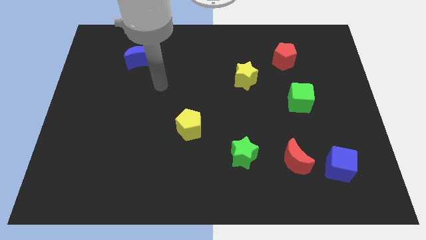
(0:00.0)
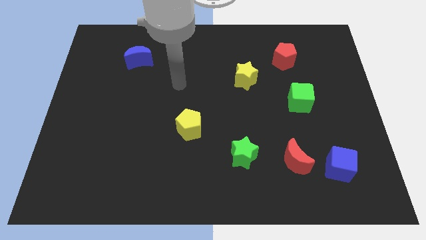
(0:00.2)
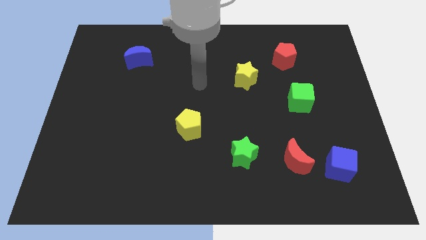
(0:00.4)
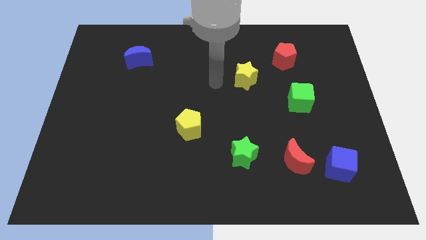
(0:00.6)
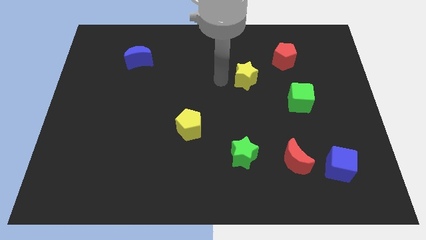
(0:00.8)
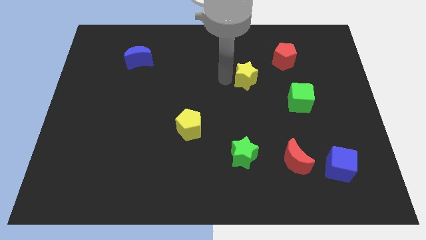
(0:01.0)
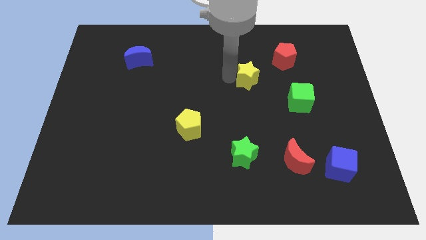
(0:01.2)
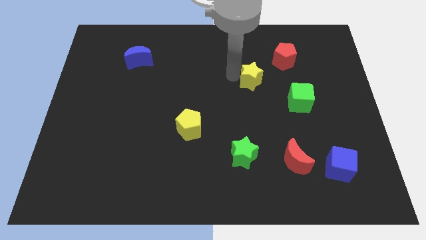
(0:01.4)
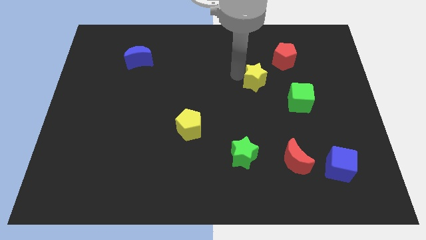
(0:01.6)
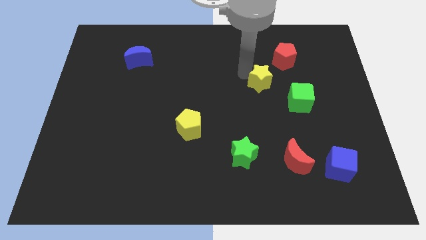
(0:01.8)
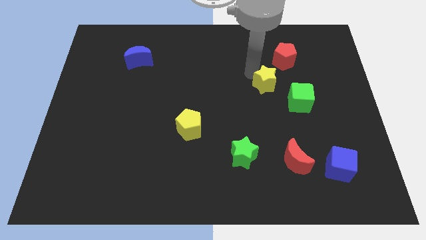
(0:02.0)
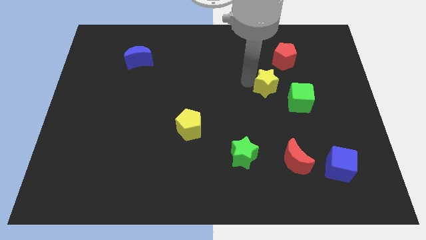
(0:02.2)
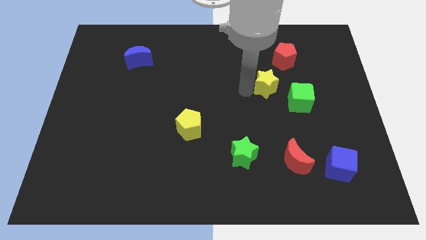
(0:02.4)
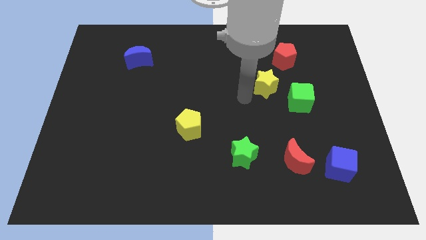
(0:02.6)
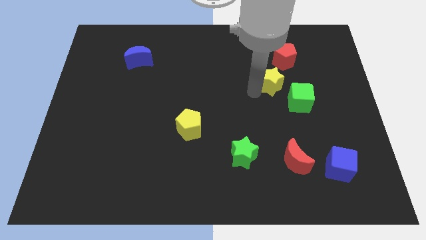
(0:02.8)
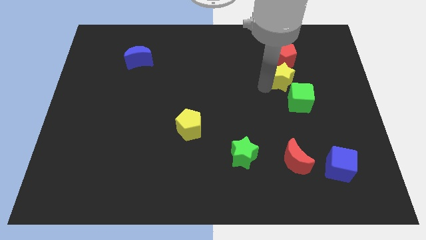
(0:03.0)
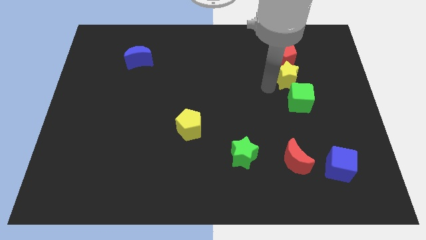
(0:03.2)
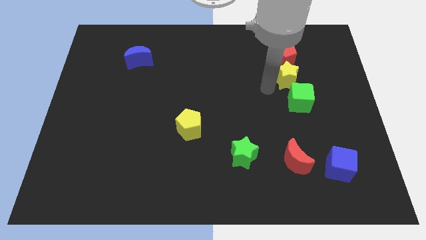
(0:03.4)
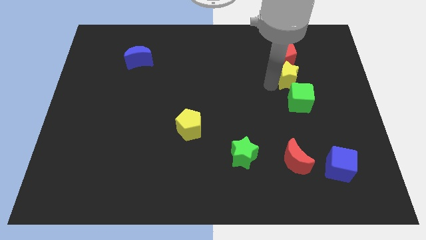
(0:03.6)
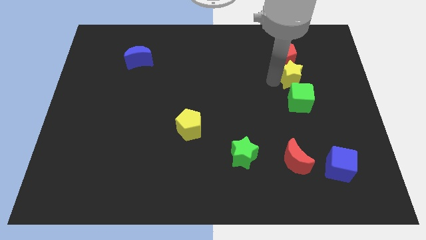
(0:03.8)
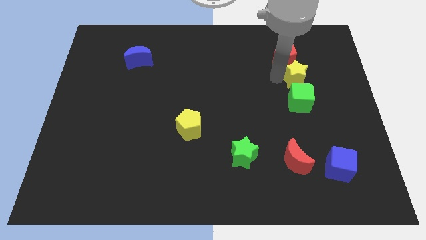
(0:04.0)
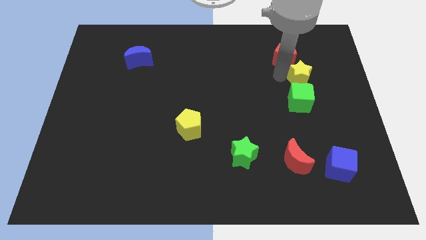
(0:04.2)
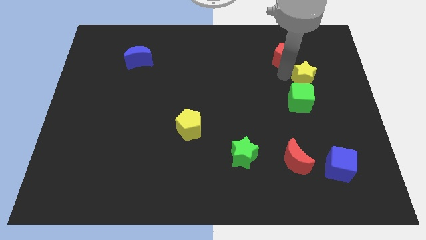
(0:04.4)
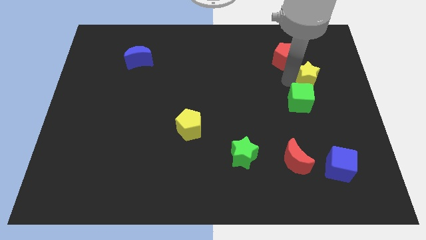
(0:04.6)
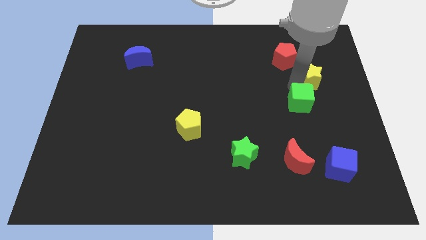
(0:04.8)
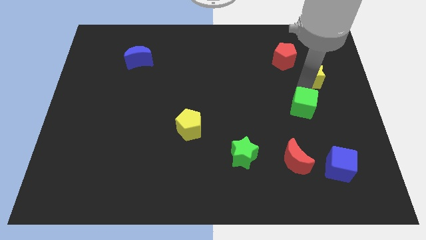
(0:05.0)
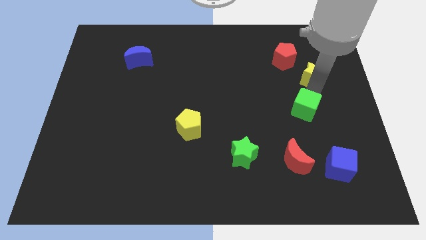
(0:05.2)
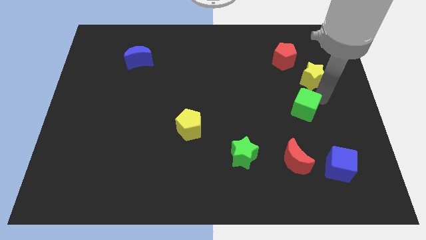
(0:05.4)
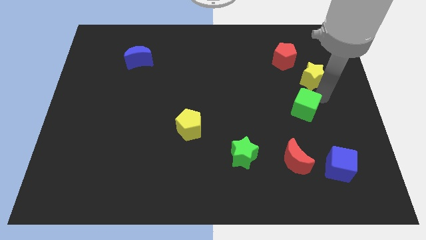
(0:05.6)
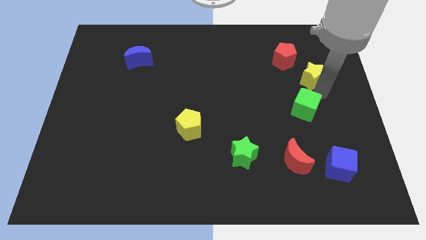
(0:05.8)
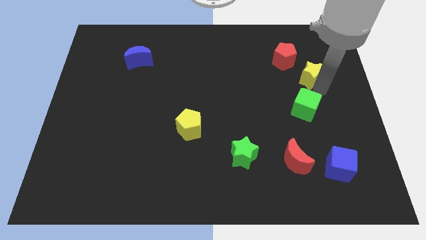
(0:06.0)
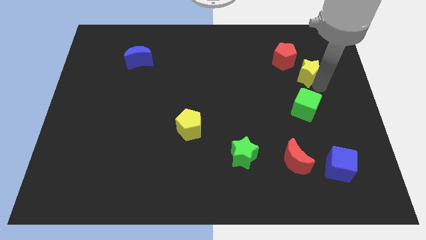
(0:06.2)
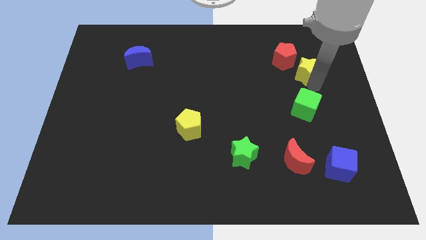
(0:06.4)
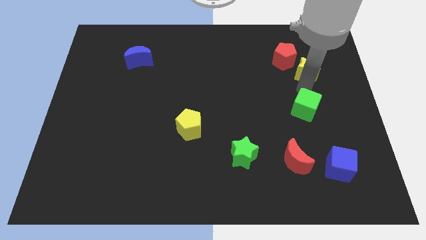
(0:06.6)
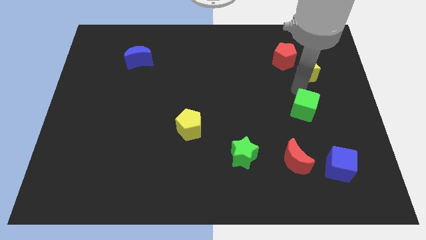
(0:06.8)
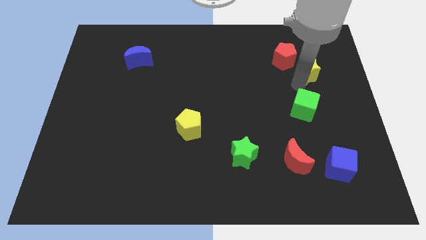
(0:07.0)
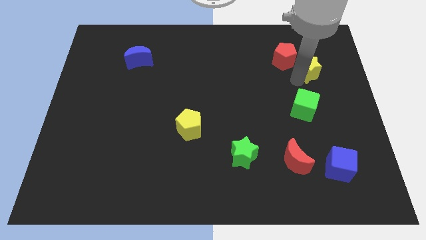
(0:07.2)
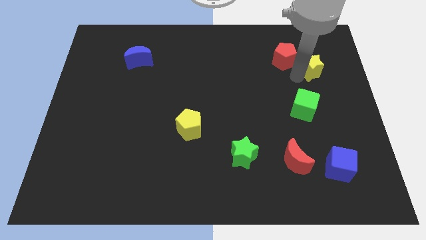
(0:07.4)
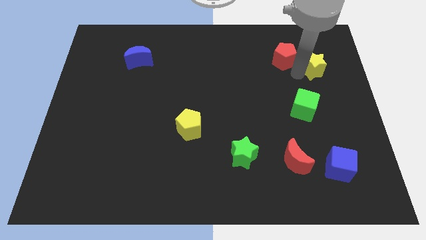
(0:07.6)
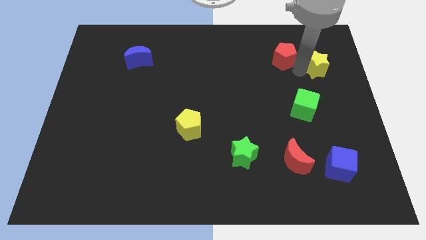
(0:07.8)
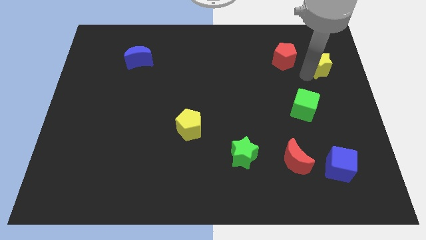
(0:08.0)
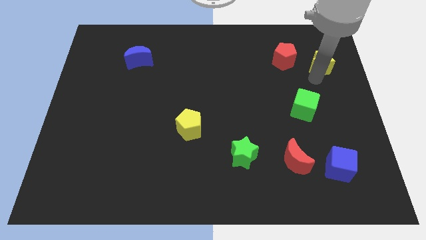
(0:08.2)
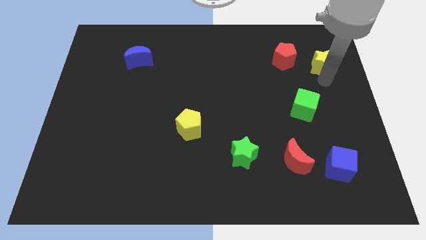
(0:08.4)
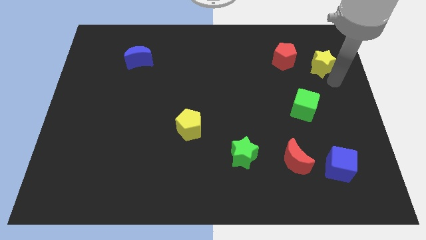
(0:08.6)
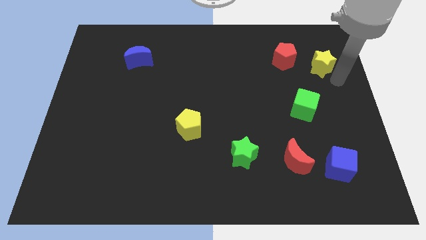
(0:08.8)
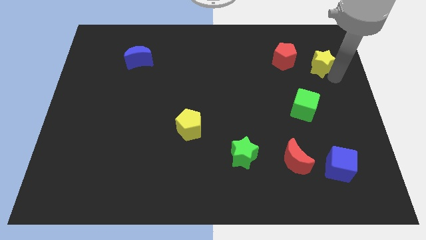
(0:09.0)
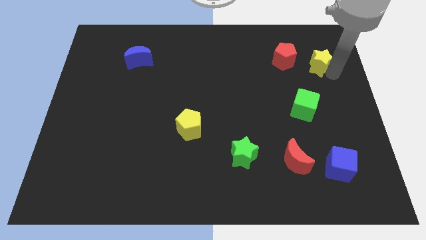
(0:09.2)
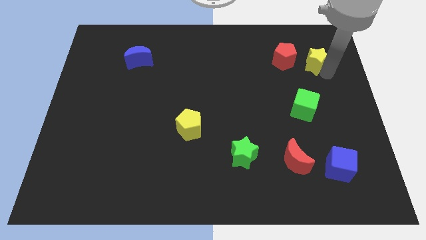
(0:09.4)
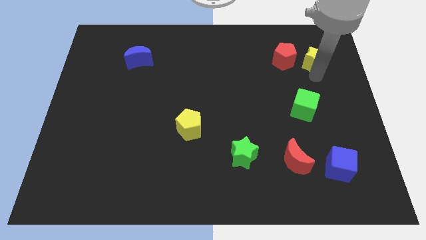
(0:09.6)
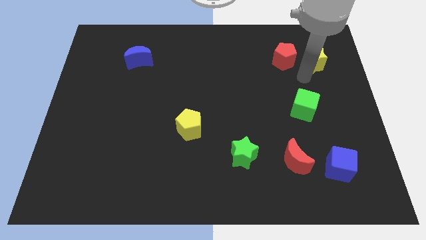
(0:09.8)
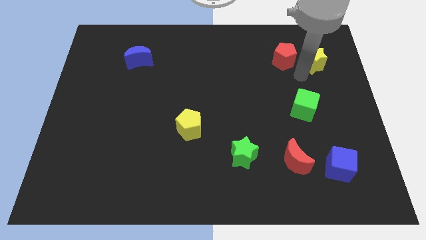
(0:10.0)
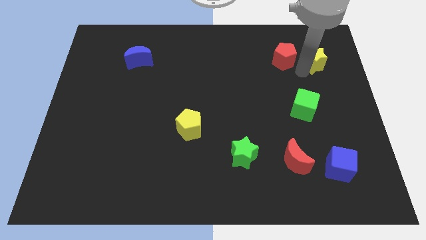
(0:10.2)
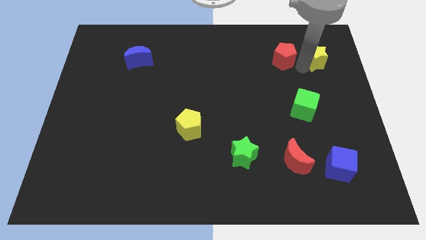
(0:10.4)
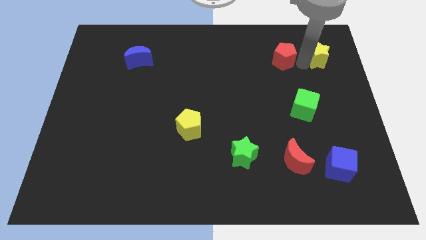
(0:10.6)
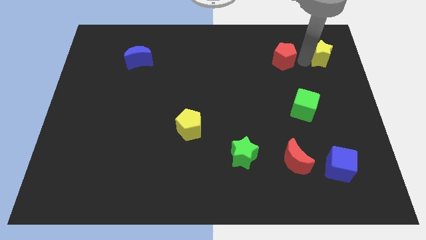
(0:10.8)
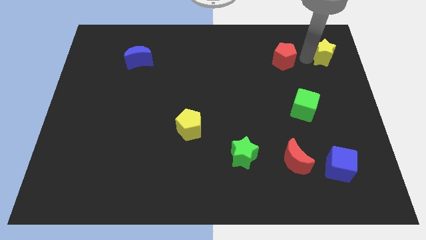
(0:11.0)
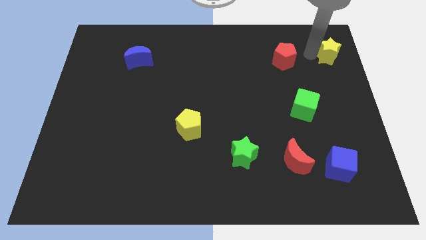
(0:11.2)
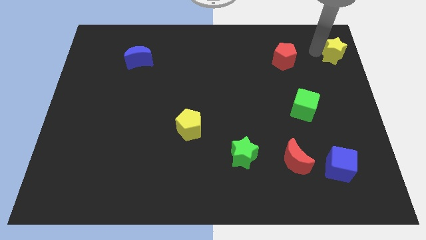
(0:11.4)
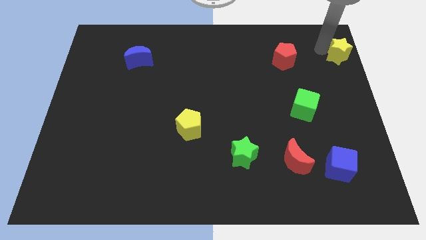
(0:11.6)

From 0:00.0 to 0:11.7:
move the yellow star to the top right of the board

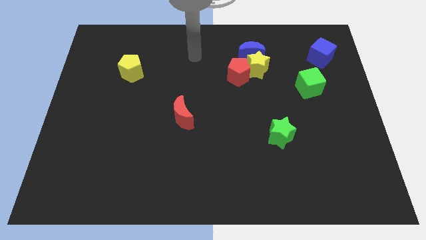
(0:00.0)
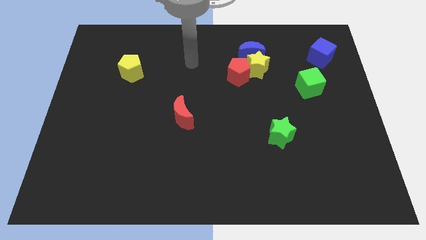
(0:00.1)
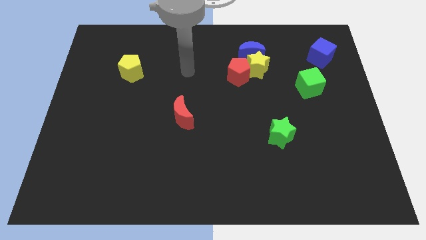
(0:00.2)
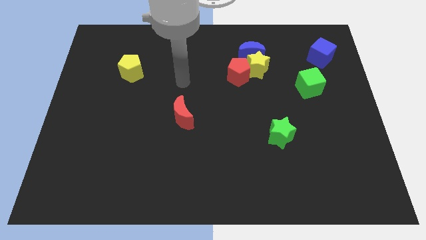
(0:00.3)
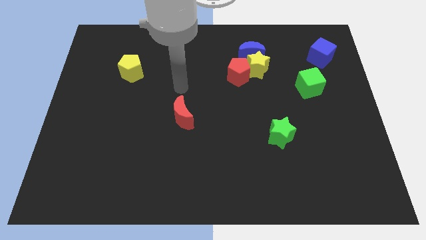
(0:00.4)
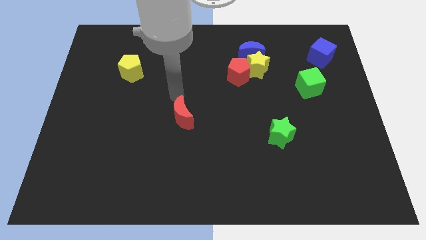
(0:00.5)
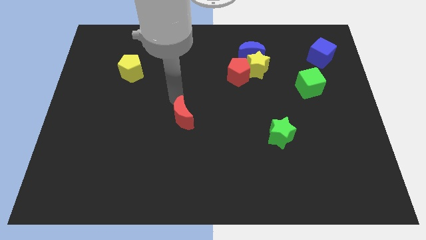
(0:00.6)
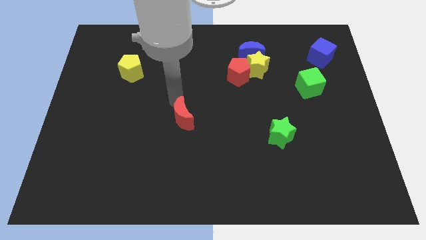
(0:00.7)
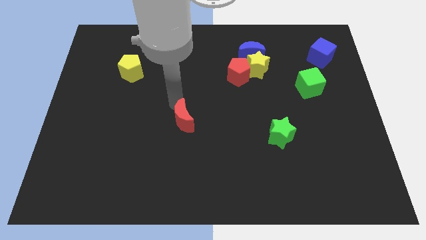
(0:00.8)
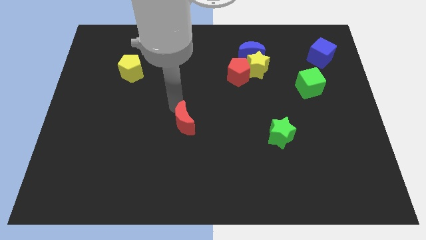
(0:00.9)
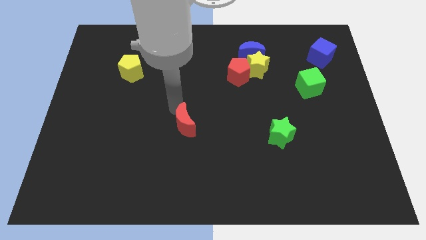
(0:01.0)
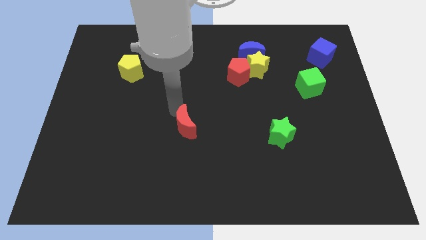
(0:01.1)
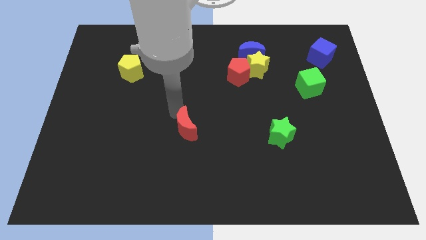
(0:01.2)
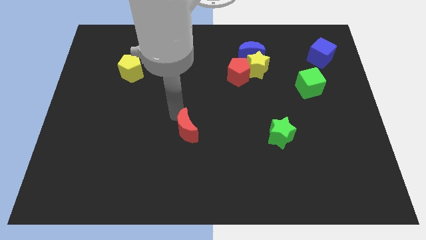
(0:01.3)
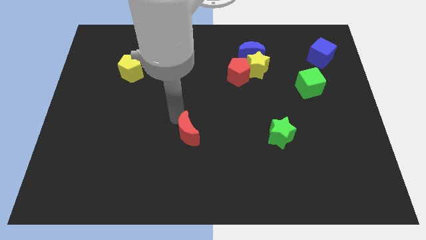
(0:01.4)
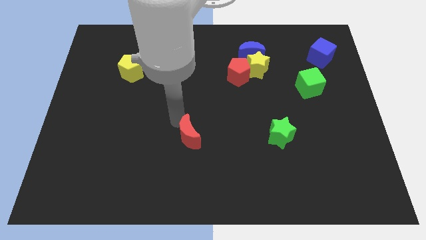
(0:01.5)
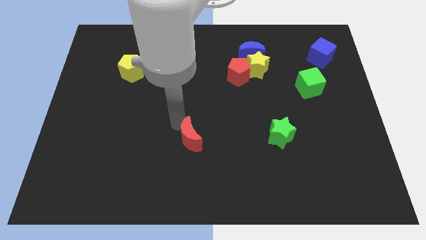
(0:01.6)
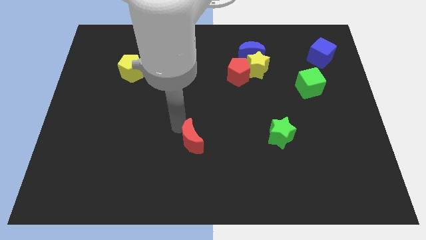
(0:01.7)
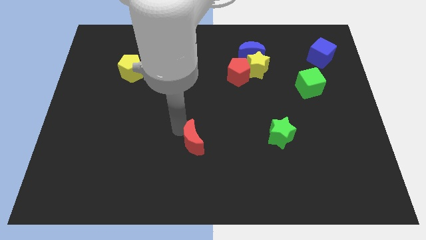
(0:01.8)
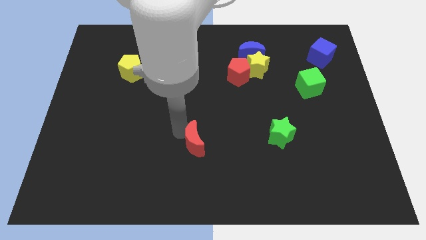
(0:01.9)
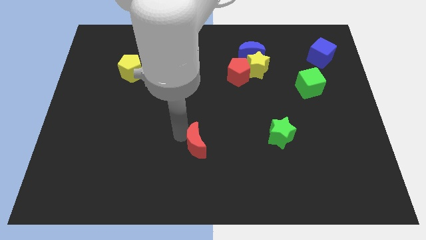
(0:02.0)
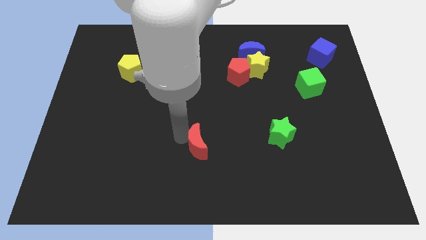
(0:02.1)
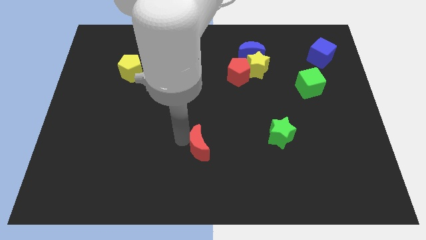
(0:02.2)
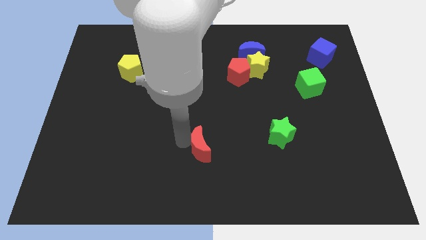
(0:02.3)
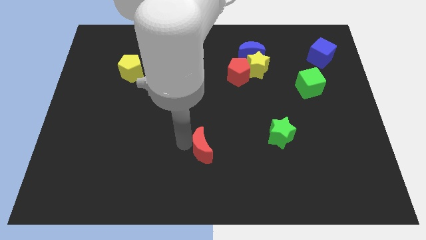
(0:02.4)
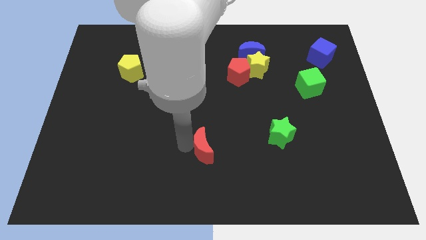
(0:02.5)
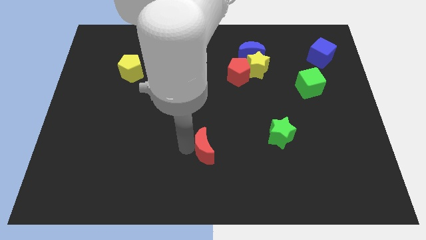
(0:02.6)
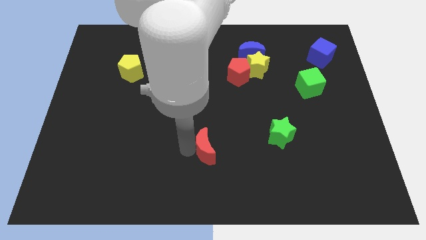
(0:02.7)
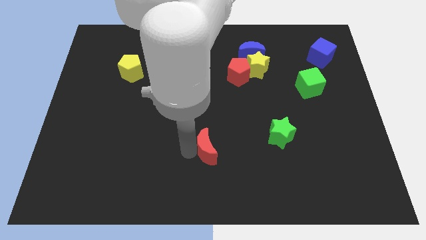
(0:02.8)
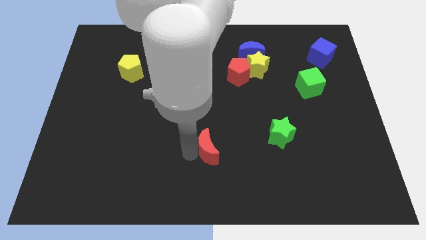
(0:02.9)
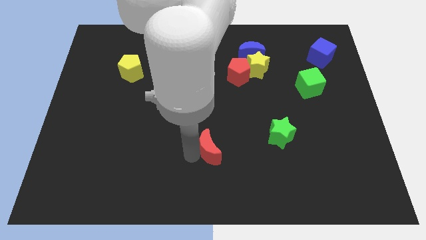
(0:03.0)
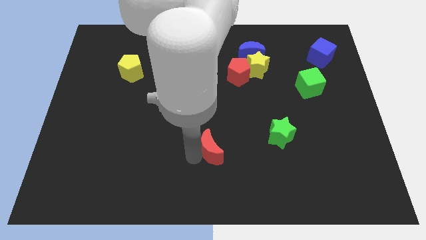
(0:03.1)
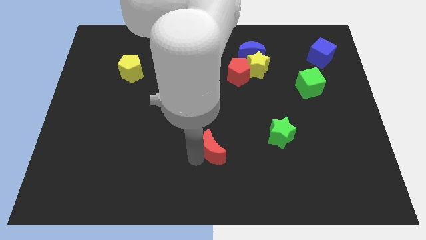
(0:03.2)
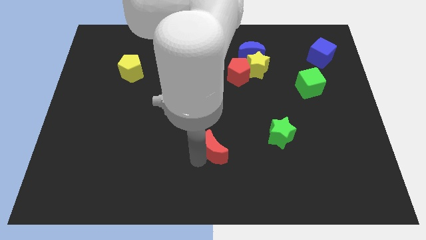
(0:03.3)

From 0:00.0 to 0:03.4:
put the red moon to the bottom side
